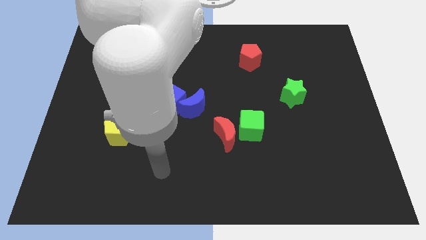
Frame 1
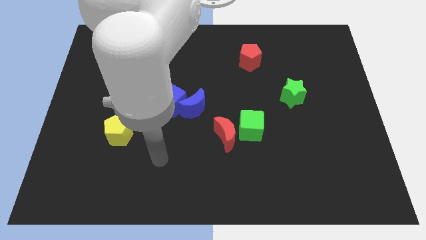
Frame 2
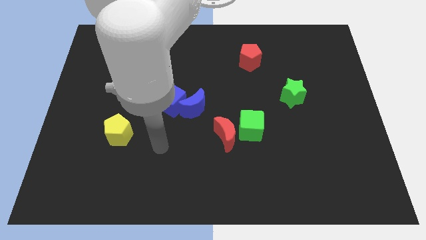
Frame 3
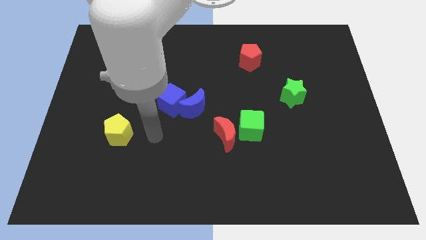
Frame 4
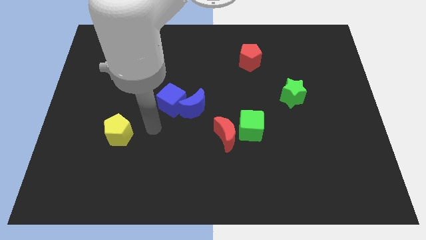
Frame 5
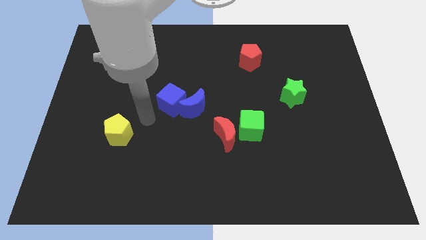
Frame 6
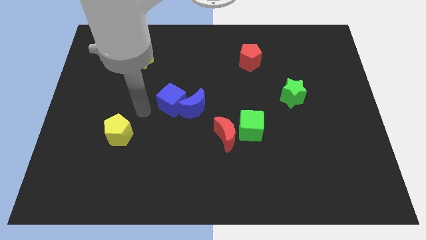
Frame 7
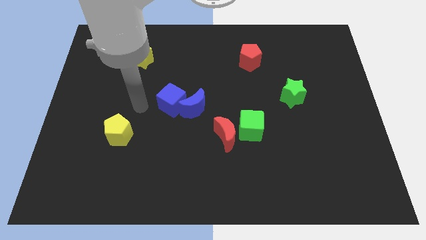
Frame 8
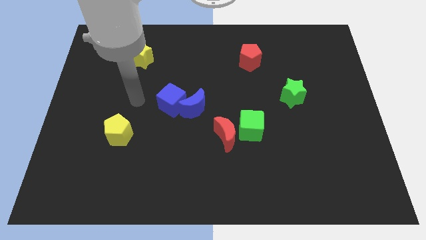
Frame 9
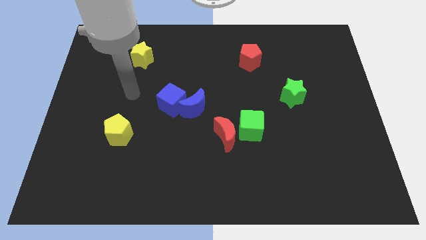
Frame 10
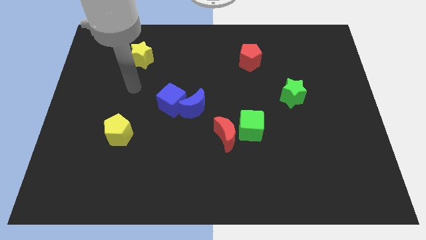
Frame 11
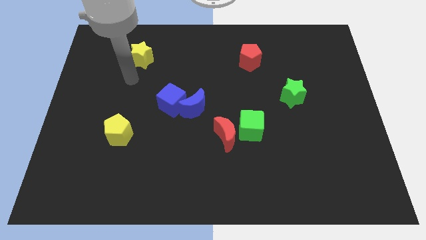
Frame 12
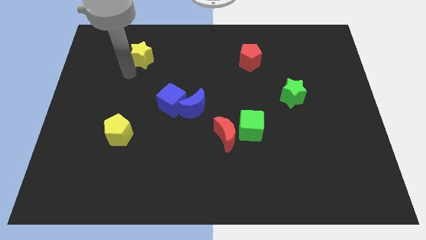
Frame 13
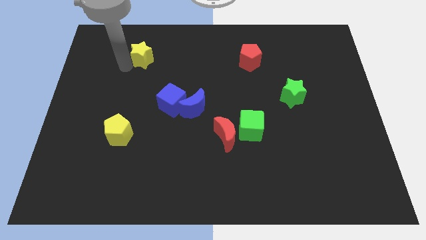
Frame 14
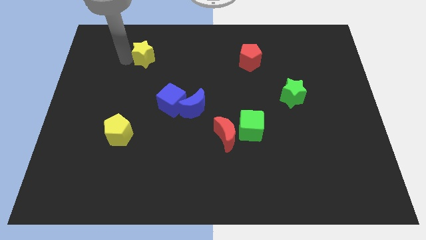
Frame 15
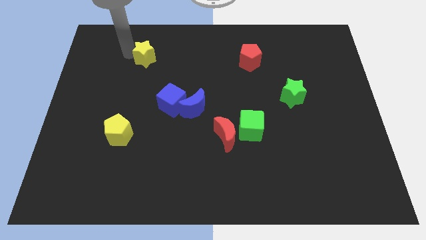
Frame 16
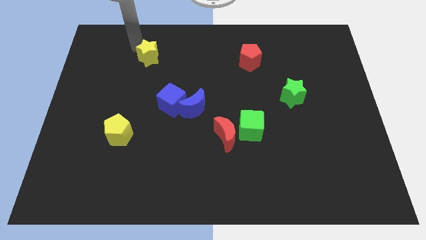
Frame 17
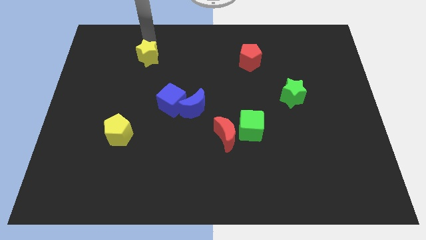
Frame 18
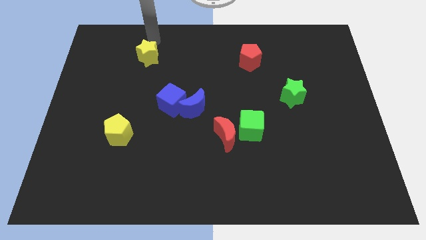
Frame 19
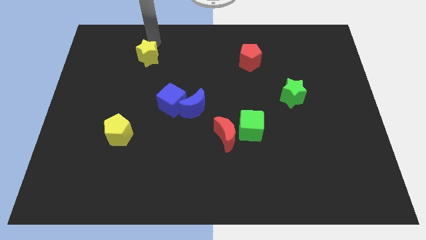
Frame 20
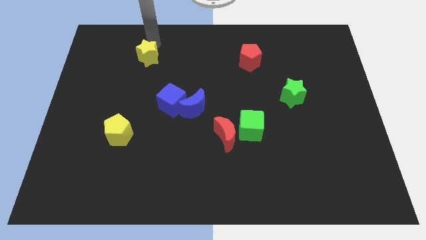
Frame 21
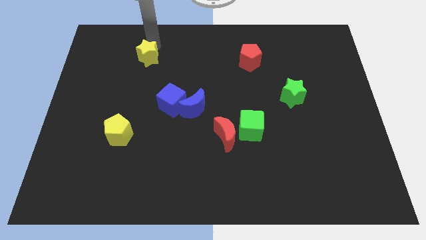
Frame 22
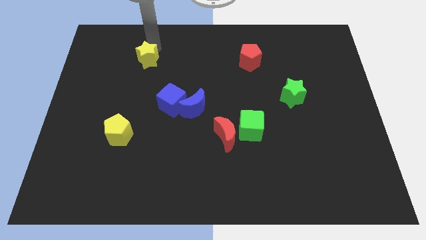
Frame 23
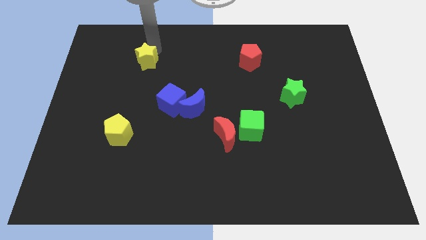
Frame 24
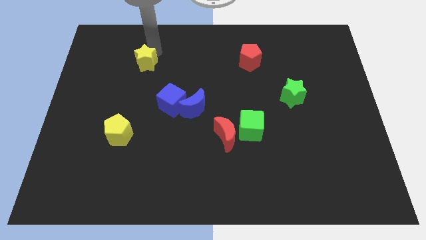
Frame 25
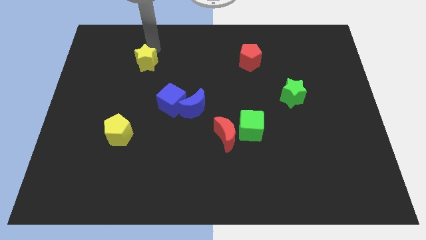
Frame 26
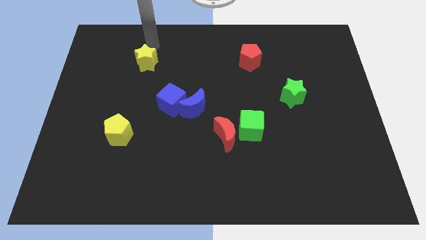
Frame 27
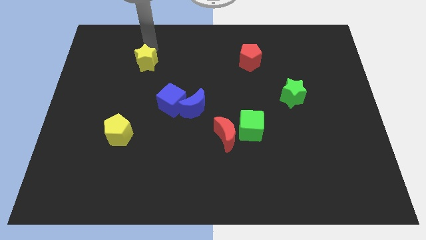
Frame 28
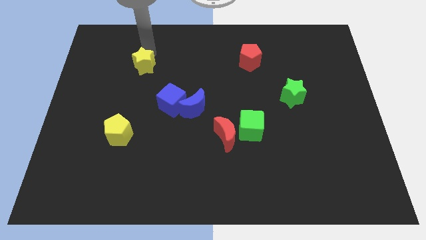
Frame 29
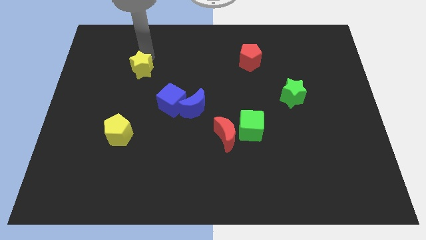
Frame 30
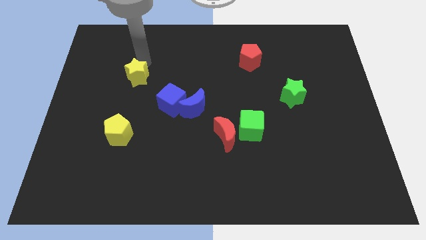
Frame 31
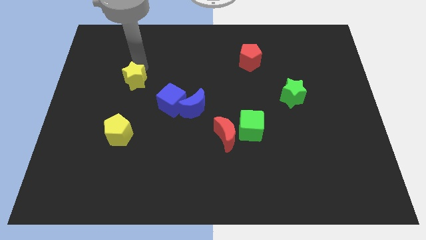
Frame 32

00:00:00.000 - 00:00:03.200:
slide the yellow star downwards somewhat

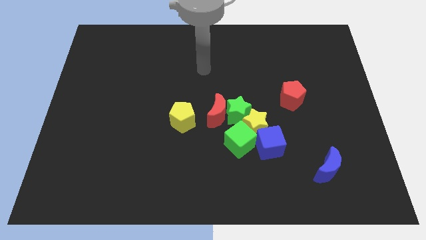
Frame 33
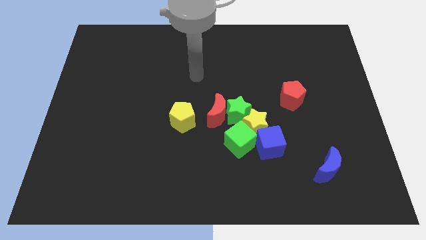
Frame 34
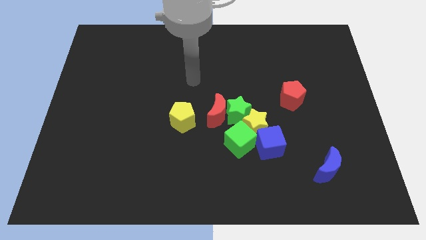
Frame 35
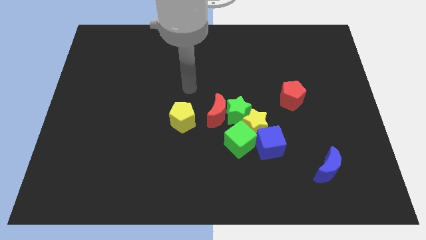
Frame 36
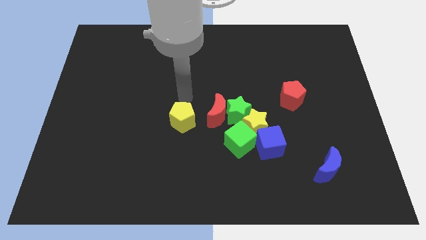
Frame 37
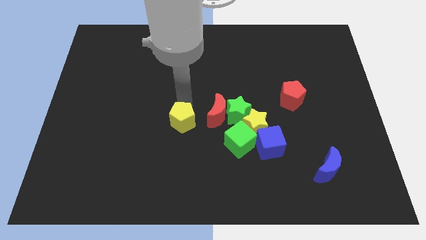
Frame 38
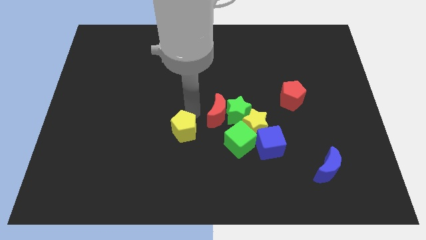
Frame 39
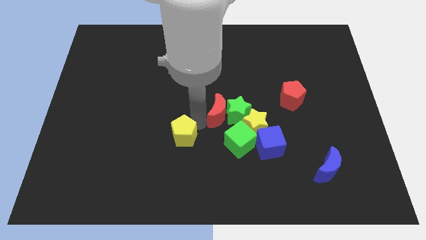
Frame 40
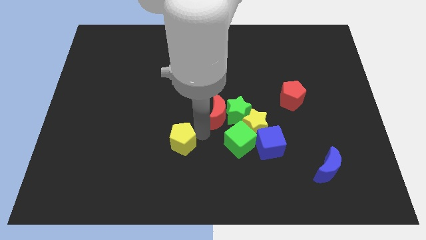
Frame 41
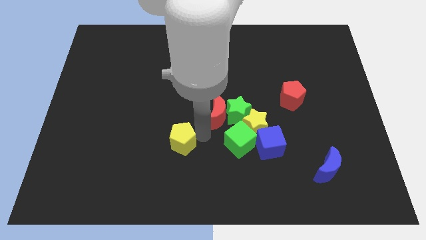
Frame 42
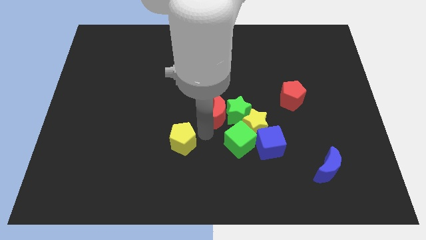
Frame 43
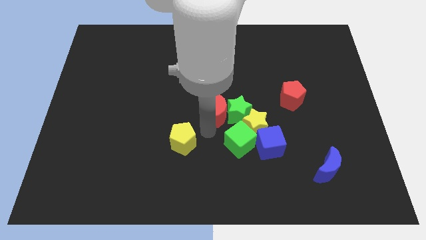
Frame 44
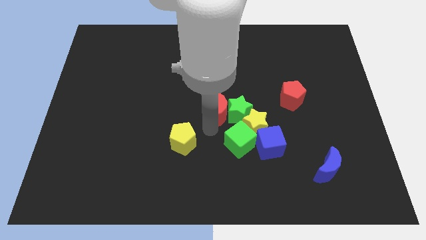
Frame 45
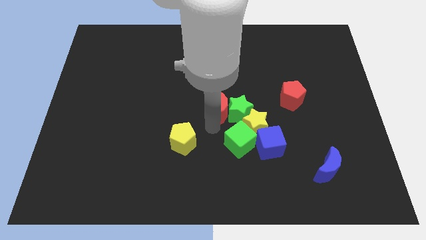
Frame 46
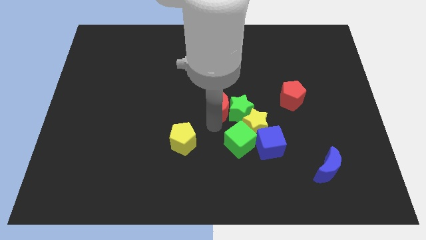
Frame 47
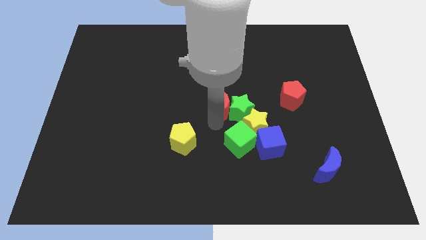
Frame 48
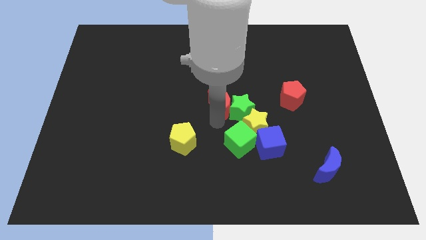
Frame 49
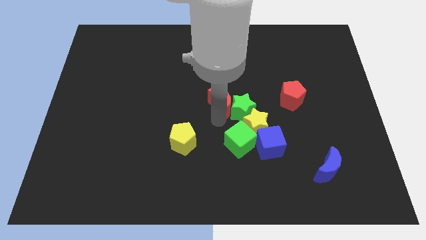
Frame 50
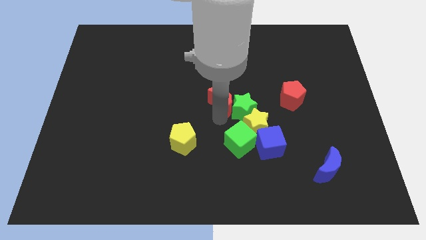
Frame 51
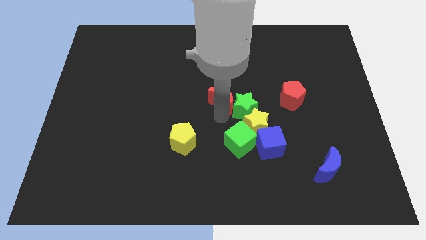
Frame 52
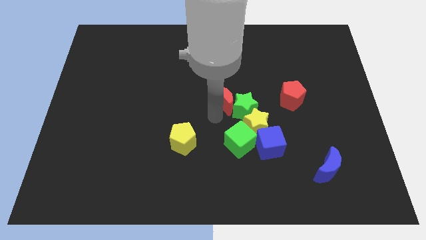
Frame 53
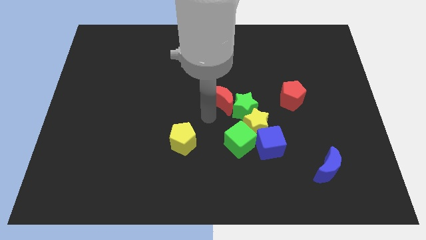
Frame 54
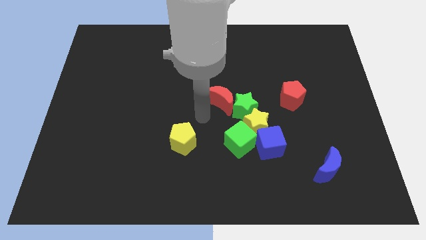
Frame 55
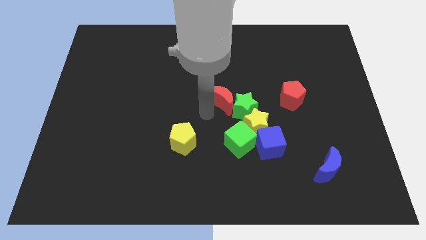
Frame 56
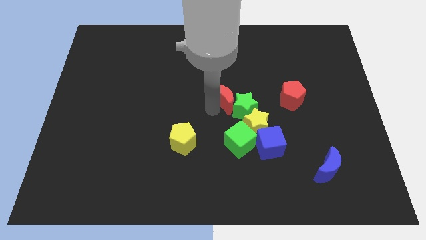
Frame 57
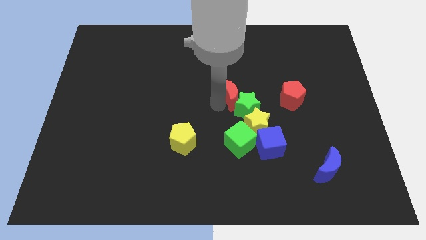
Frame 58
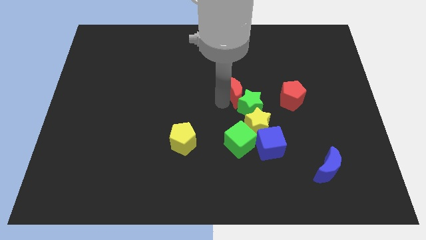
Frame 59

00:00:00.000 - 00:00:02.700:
push the red moon diagonally upwards and to the right a little bit

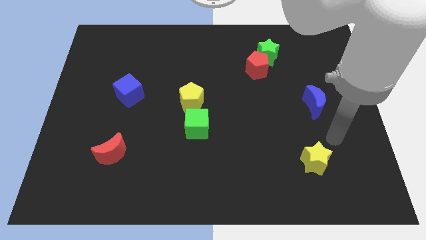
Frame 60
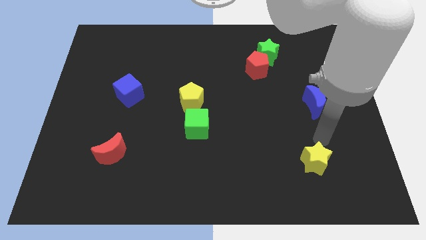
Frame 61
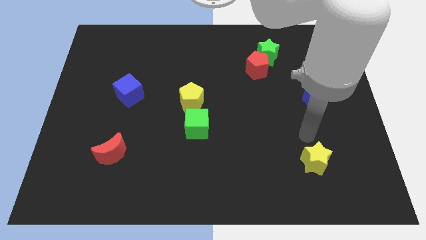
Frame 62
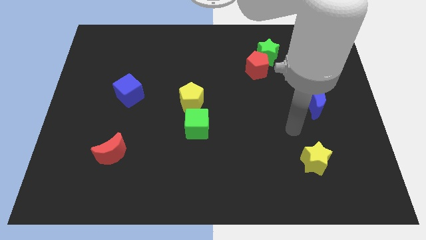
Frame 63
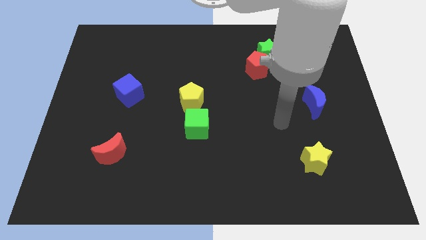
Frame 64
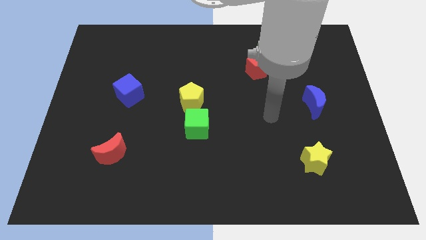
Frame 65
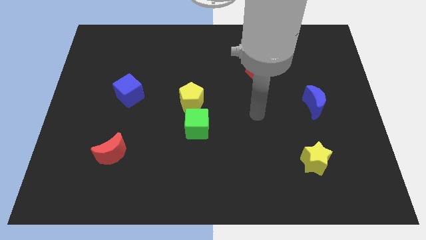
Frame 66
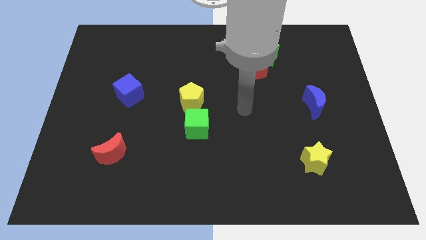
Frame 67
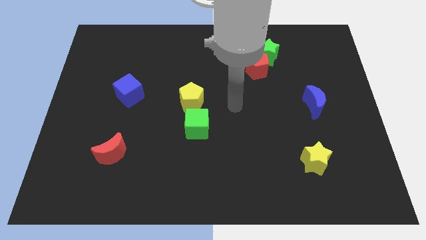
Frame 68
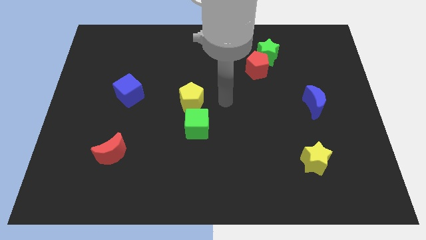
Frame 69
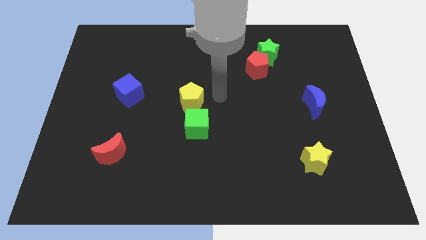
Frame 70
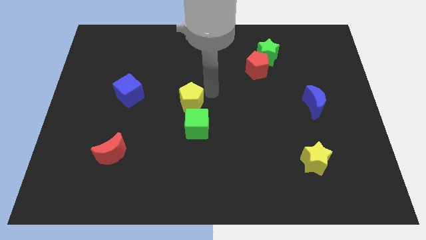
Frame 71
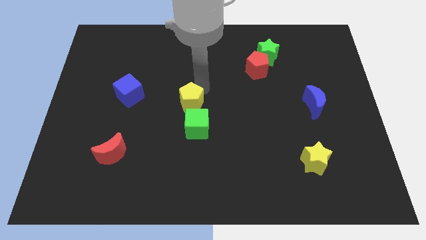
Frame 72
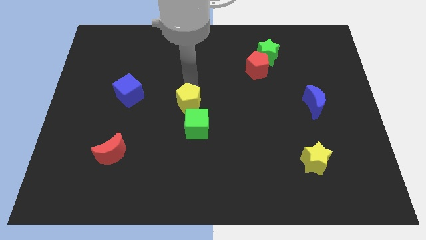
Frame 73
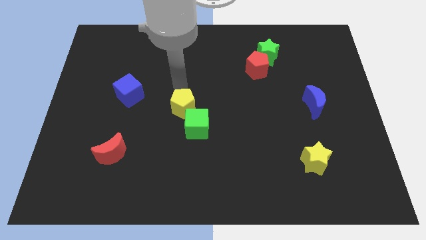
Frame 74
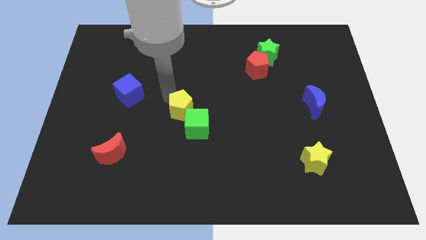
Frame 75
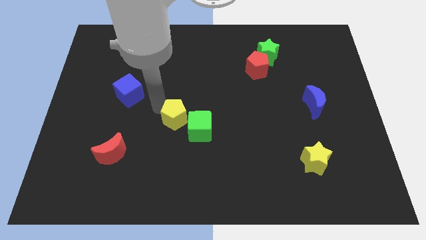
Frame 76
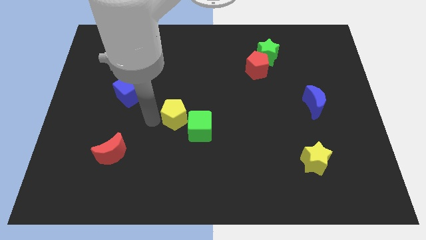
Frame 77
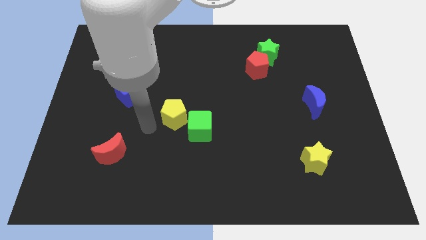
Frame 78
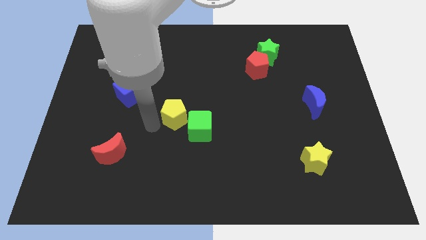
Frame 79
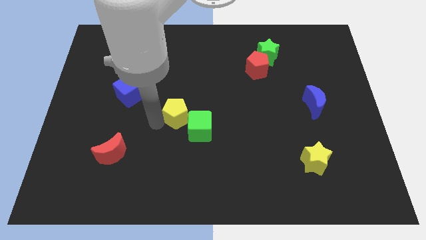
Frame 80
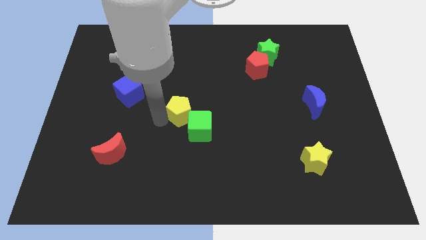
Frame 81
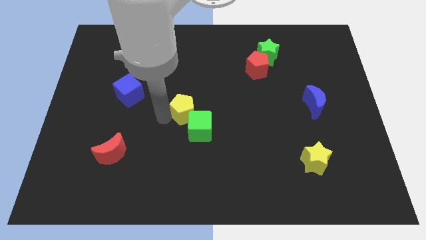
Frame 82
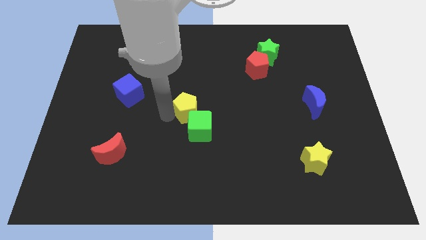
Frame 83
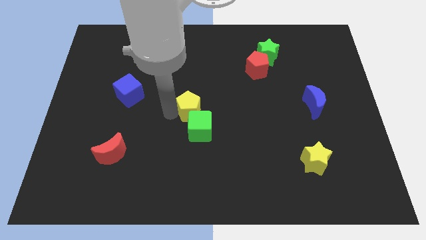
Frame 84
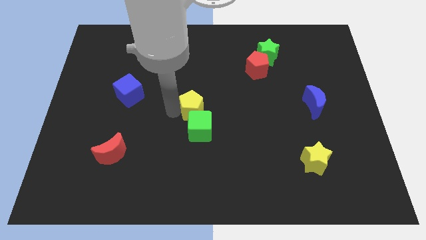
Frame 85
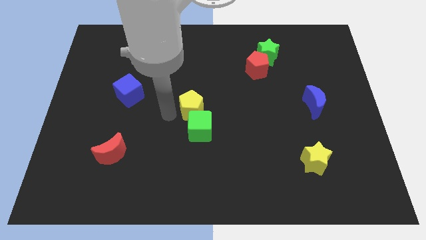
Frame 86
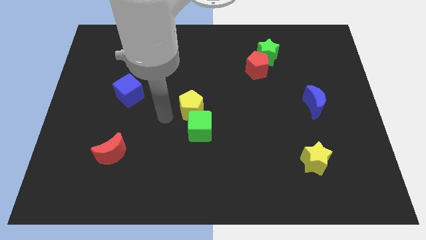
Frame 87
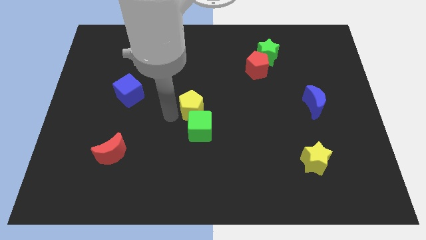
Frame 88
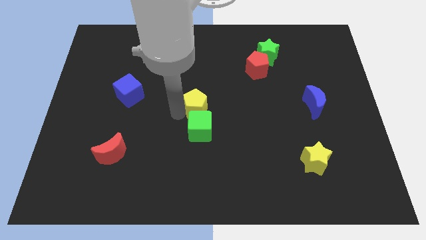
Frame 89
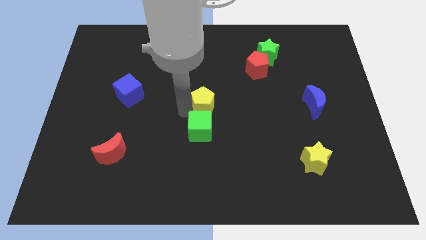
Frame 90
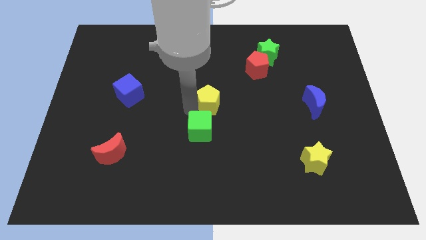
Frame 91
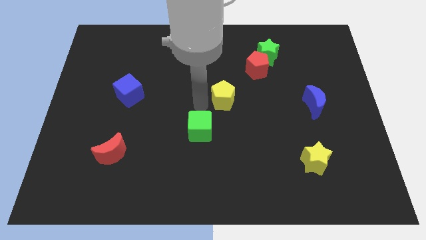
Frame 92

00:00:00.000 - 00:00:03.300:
push the yellow pentagon a bit right
